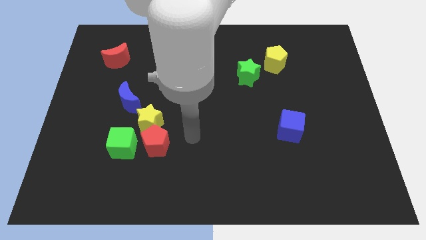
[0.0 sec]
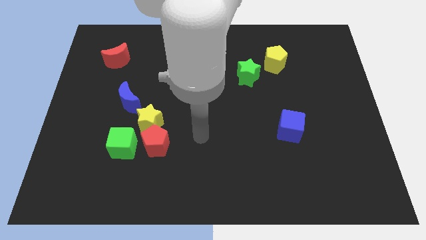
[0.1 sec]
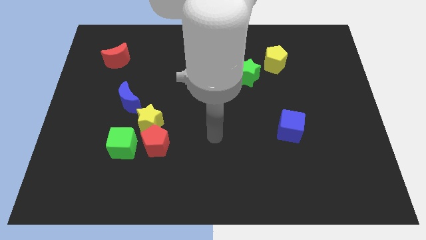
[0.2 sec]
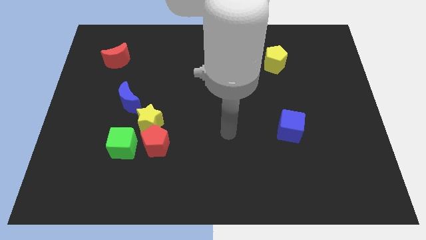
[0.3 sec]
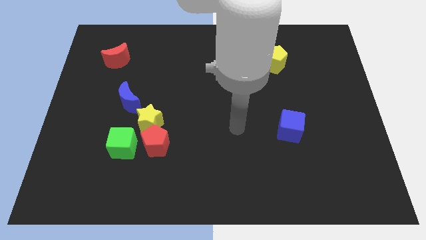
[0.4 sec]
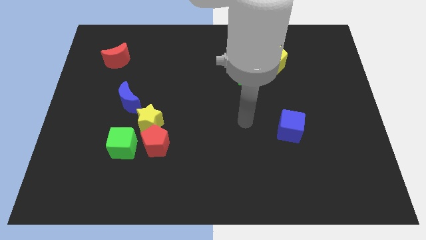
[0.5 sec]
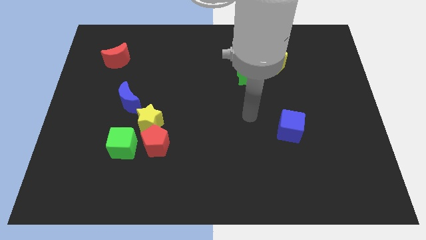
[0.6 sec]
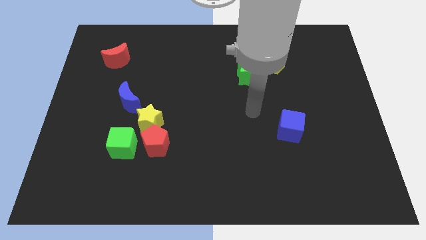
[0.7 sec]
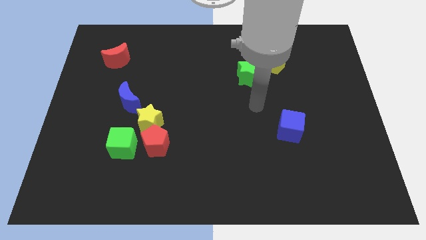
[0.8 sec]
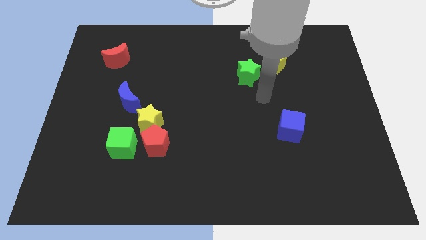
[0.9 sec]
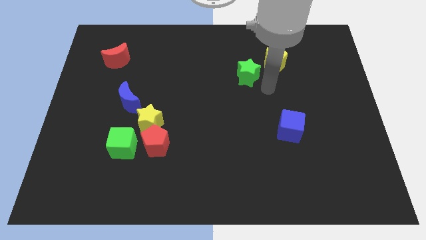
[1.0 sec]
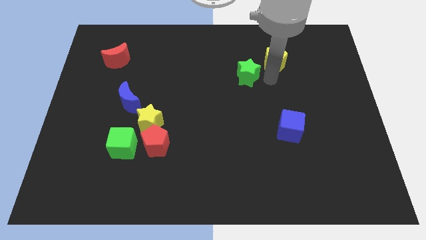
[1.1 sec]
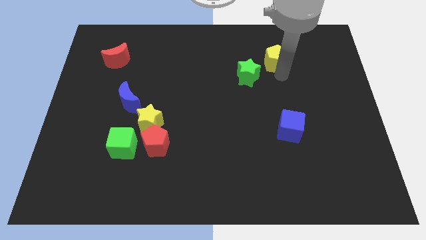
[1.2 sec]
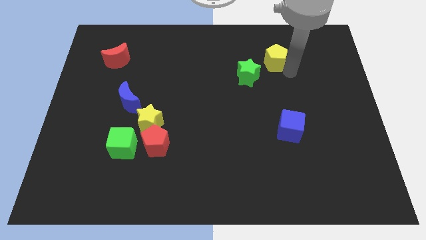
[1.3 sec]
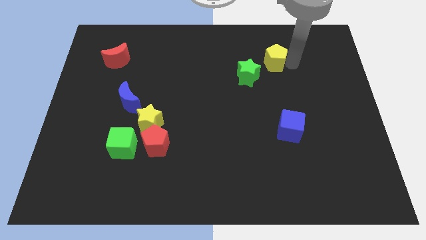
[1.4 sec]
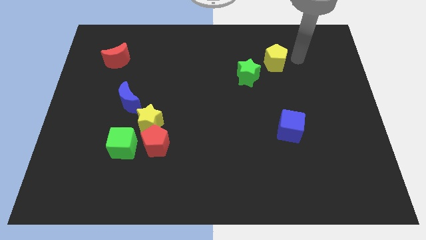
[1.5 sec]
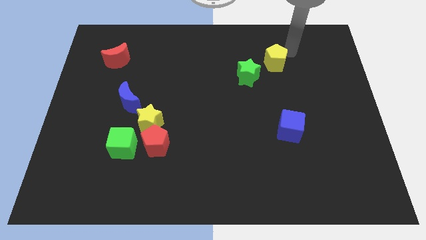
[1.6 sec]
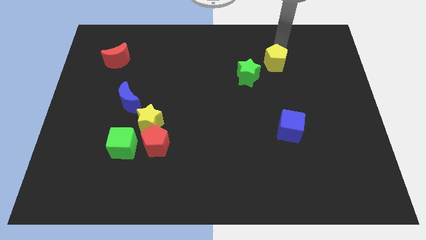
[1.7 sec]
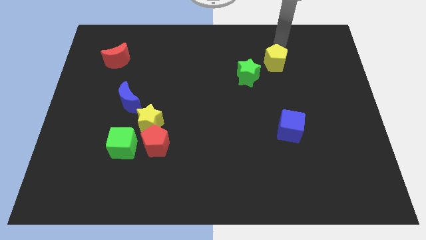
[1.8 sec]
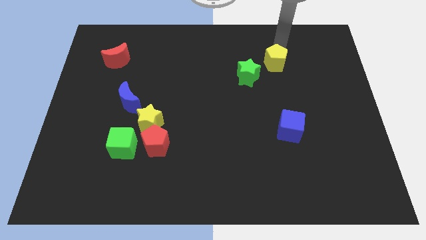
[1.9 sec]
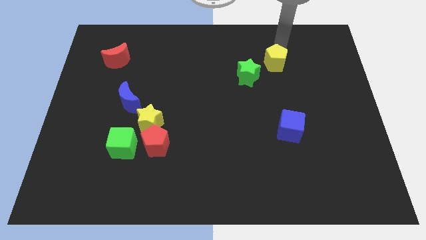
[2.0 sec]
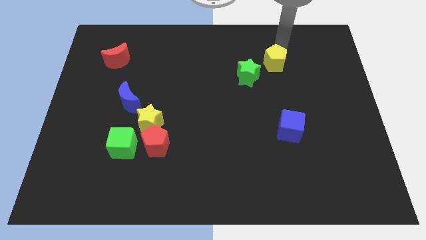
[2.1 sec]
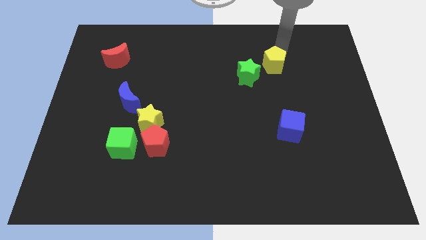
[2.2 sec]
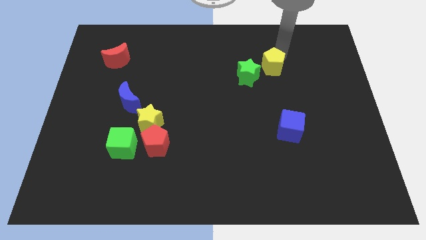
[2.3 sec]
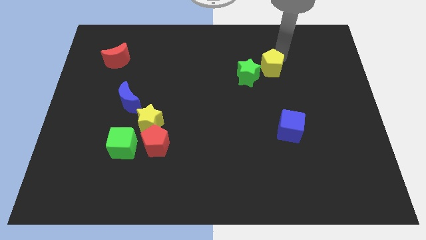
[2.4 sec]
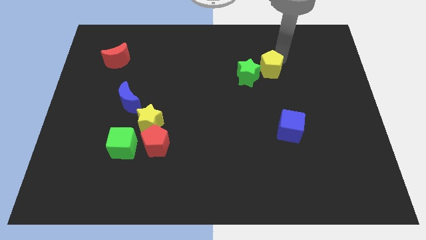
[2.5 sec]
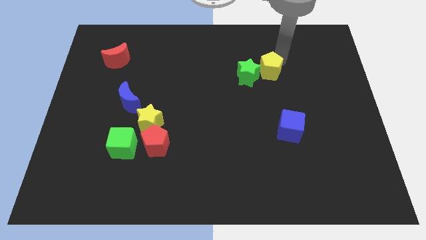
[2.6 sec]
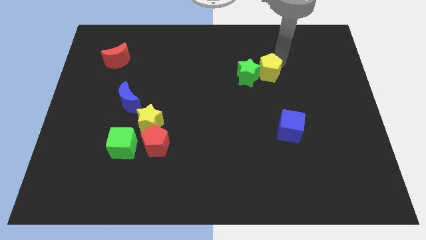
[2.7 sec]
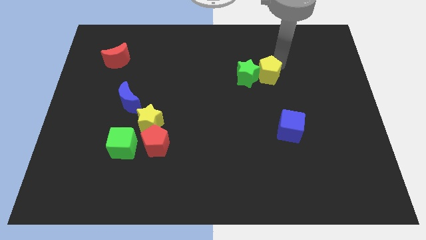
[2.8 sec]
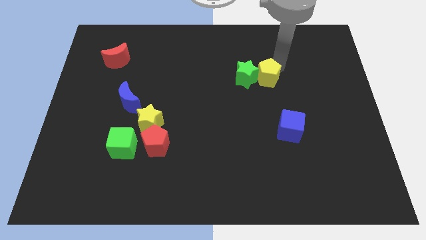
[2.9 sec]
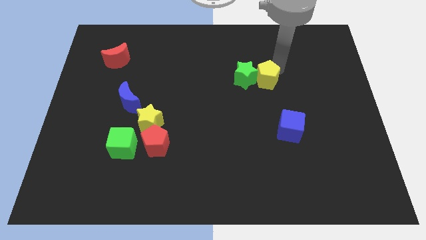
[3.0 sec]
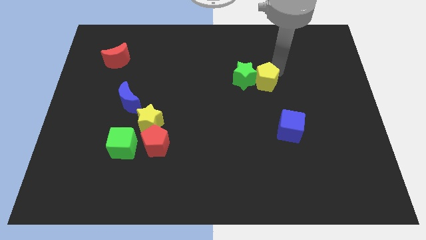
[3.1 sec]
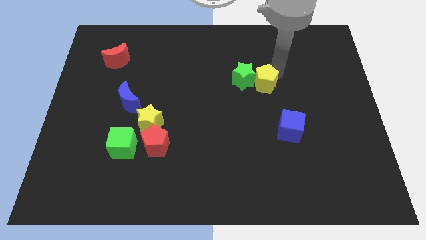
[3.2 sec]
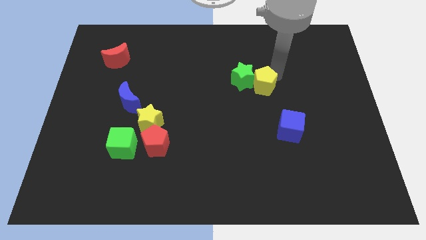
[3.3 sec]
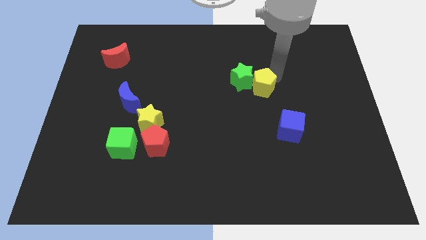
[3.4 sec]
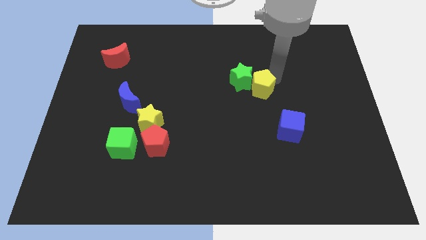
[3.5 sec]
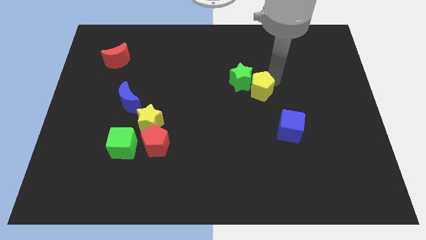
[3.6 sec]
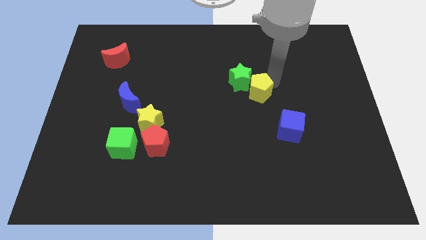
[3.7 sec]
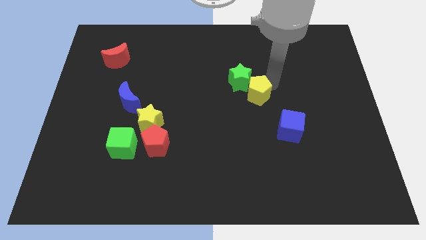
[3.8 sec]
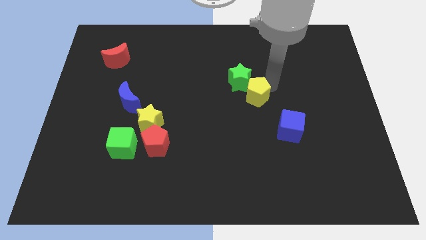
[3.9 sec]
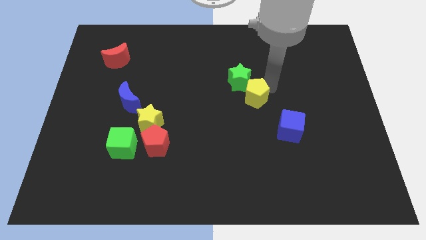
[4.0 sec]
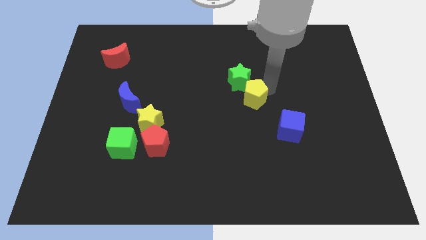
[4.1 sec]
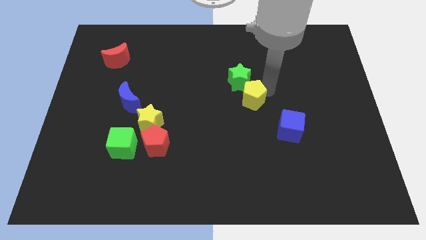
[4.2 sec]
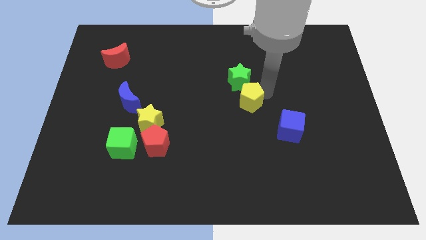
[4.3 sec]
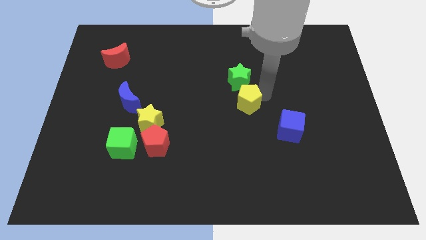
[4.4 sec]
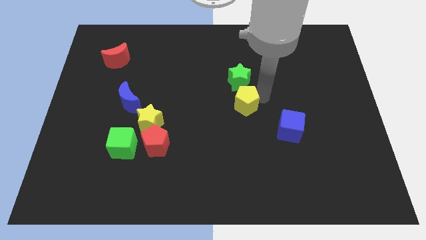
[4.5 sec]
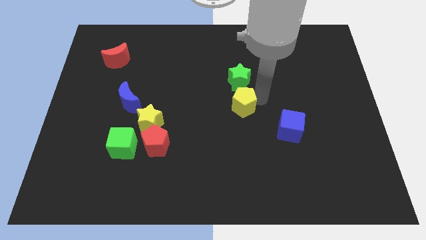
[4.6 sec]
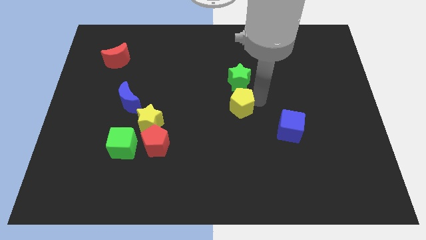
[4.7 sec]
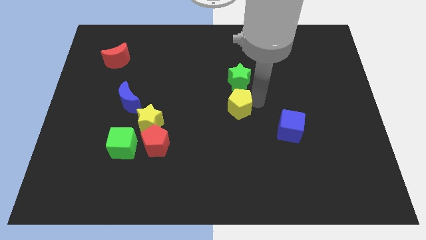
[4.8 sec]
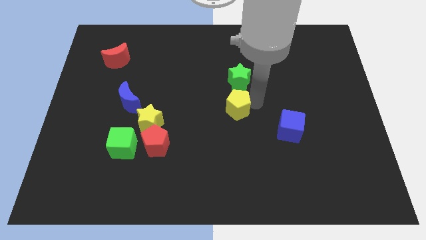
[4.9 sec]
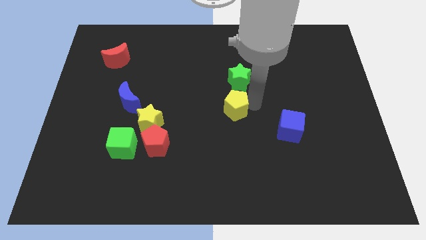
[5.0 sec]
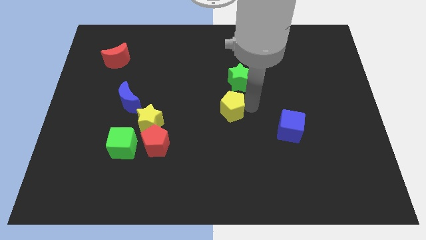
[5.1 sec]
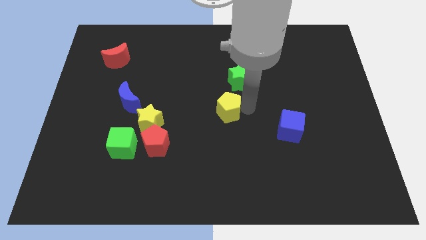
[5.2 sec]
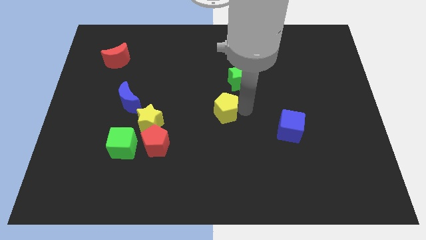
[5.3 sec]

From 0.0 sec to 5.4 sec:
move the yellow pentagon downwards and to the left

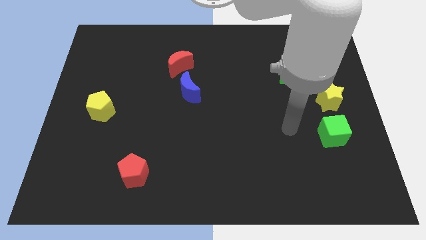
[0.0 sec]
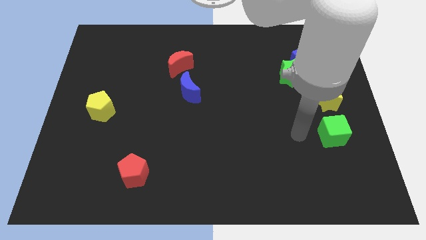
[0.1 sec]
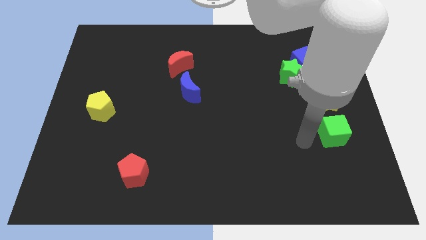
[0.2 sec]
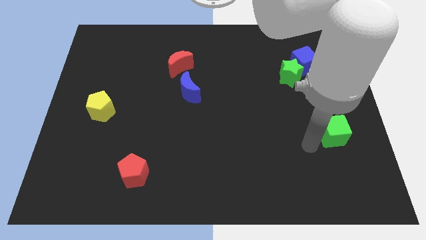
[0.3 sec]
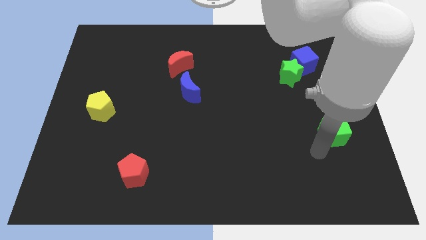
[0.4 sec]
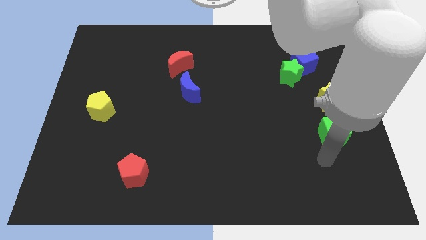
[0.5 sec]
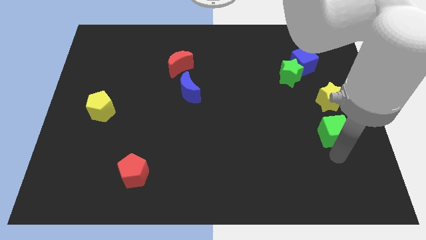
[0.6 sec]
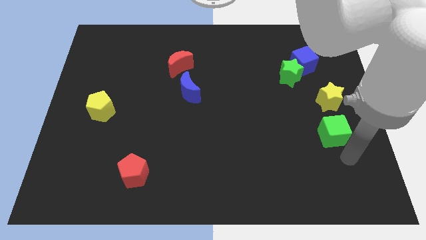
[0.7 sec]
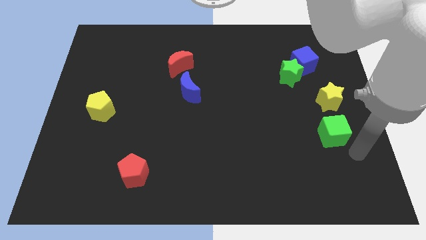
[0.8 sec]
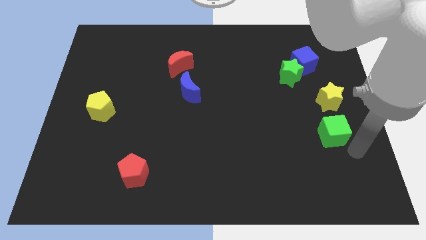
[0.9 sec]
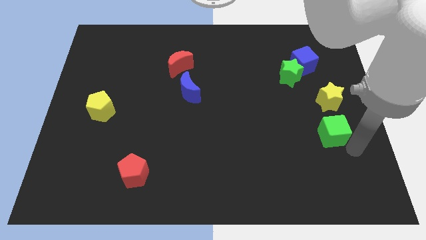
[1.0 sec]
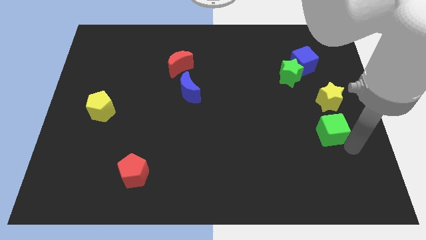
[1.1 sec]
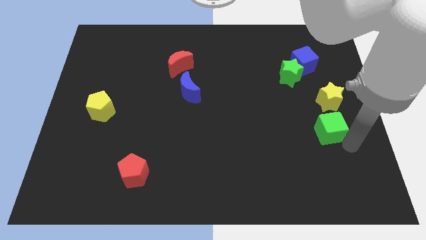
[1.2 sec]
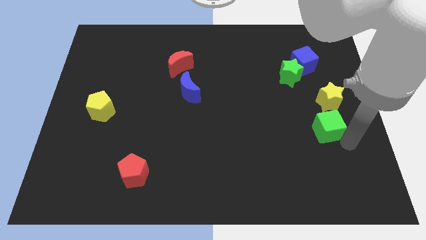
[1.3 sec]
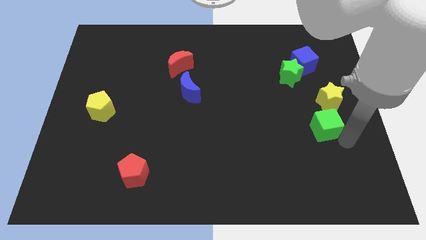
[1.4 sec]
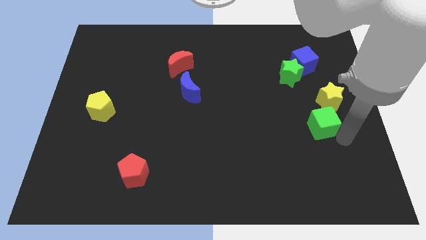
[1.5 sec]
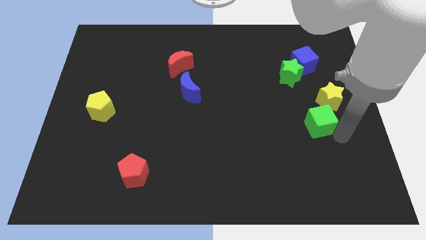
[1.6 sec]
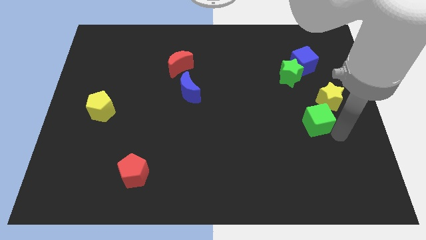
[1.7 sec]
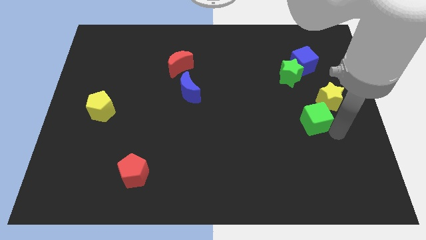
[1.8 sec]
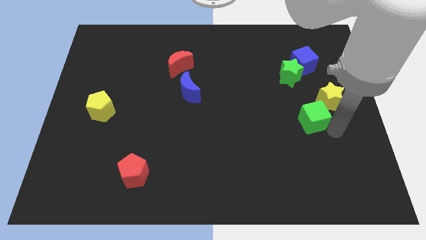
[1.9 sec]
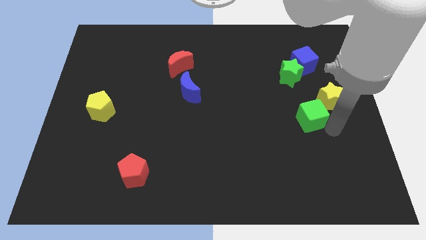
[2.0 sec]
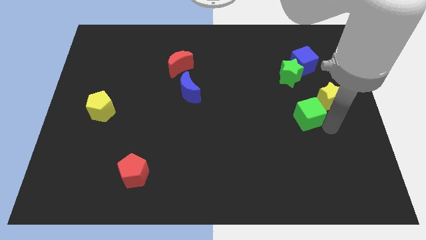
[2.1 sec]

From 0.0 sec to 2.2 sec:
slightly move the green cube upwards and to the left

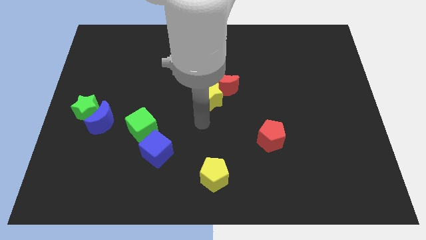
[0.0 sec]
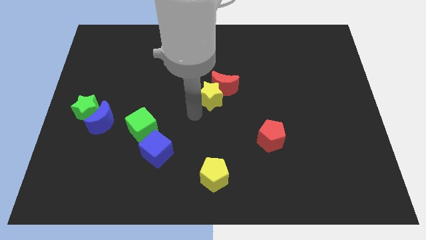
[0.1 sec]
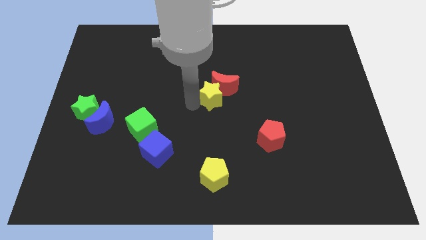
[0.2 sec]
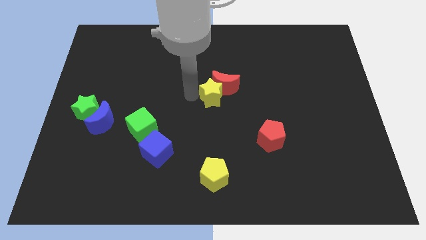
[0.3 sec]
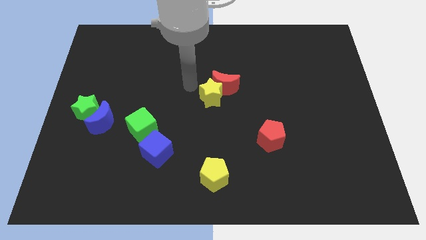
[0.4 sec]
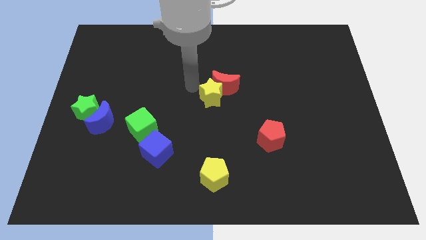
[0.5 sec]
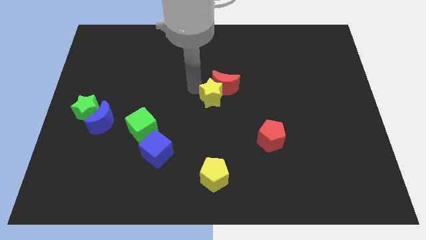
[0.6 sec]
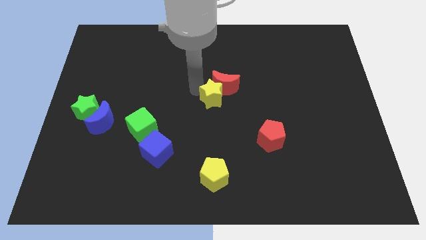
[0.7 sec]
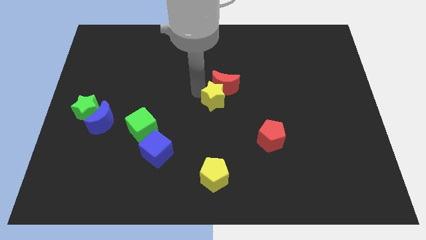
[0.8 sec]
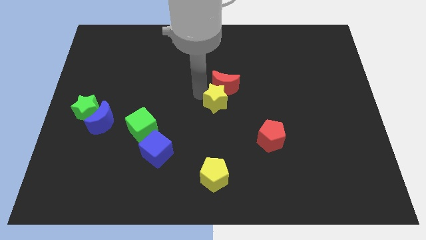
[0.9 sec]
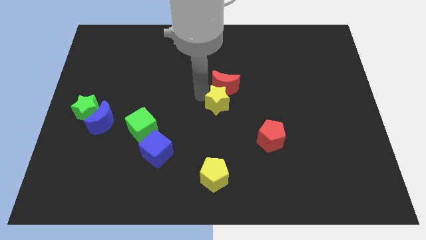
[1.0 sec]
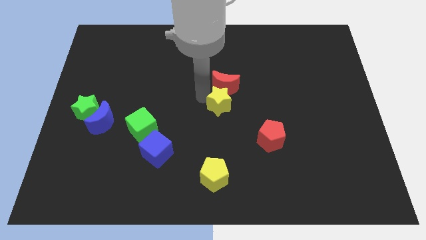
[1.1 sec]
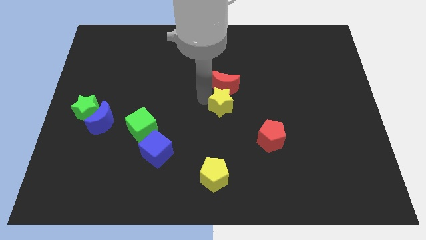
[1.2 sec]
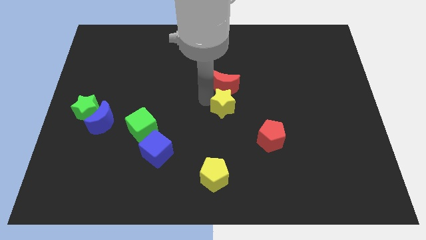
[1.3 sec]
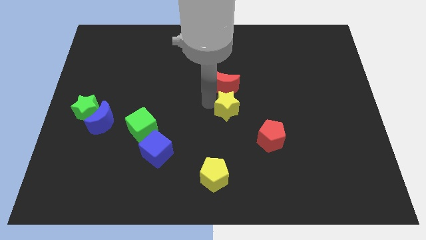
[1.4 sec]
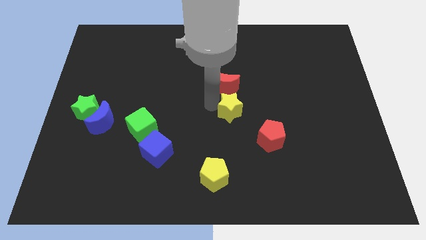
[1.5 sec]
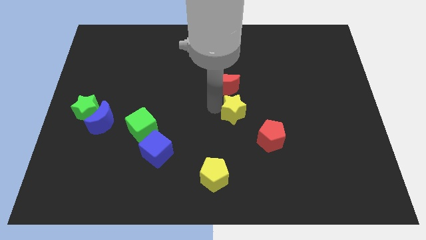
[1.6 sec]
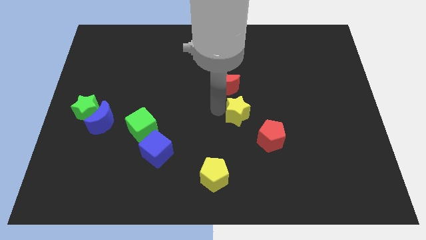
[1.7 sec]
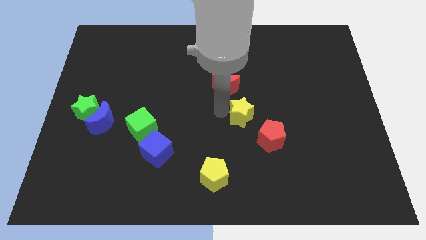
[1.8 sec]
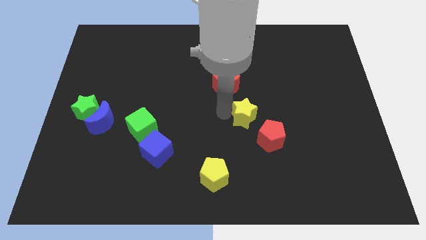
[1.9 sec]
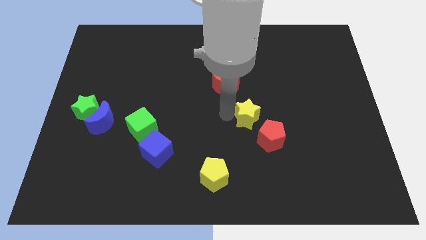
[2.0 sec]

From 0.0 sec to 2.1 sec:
move the yellow star a little right
